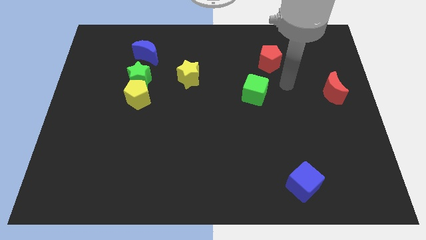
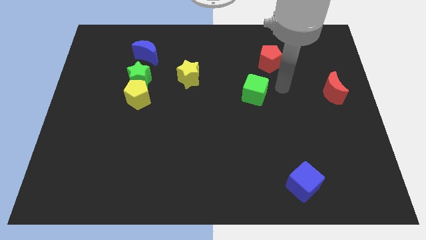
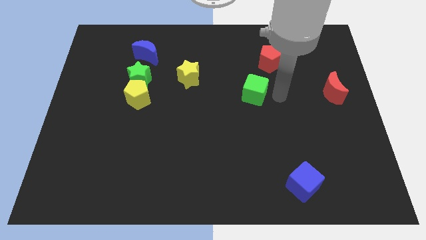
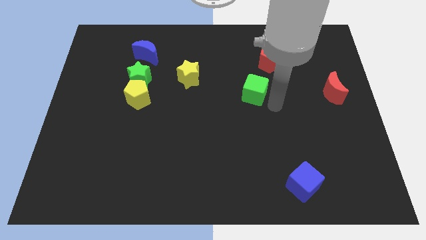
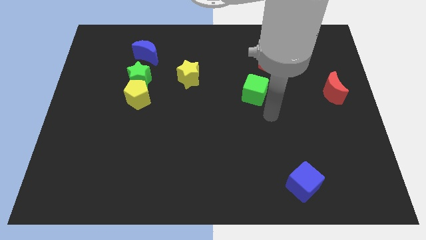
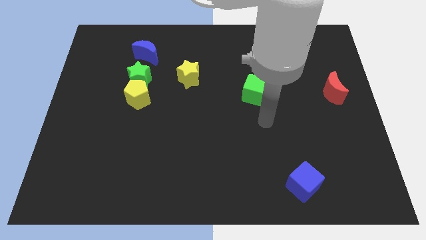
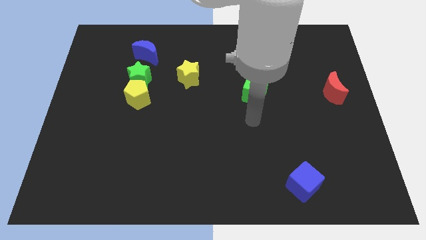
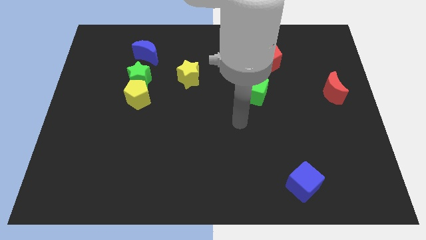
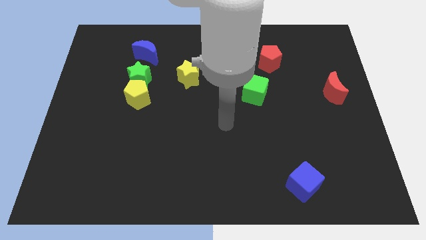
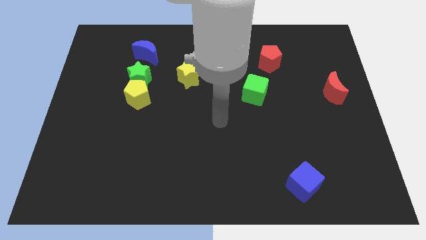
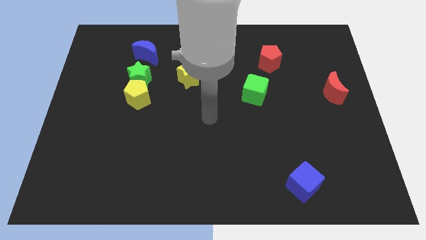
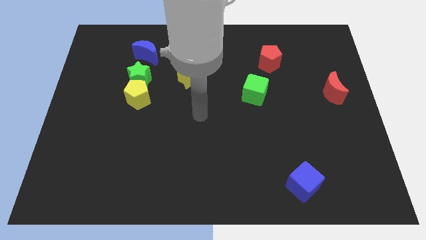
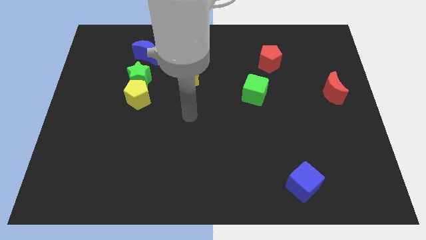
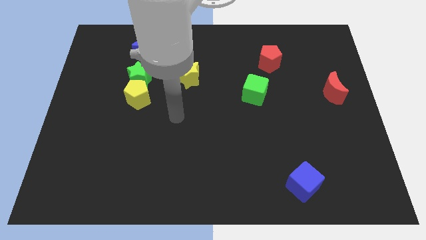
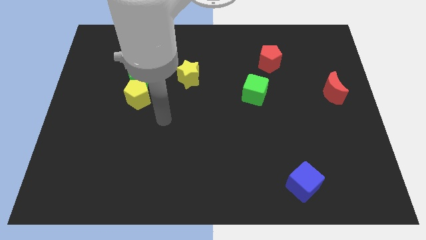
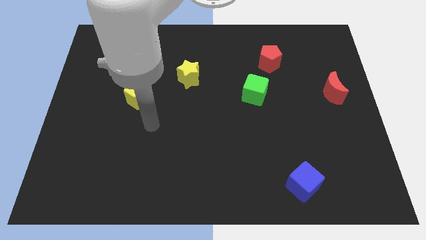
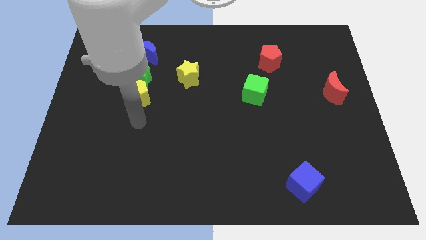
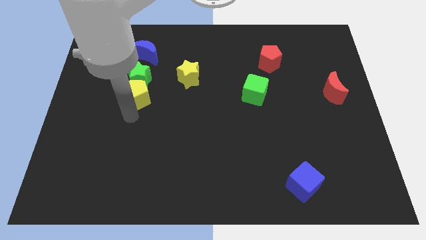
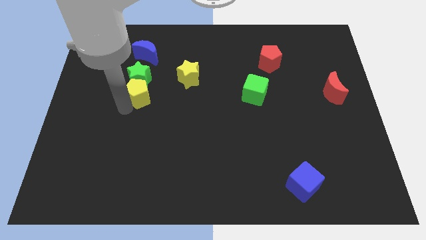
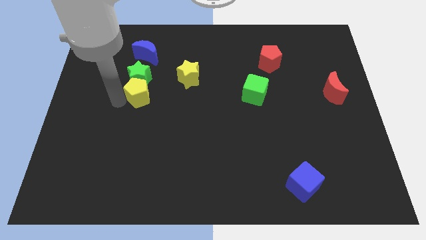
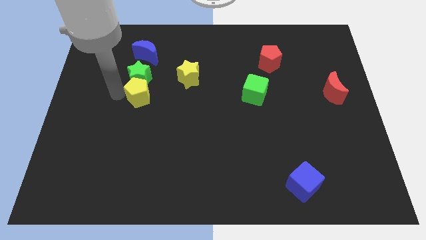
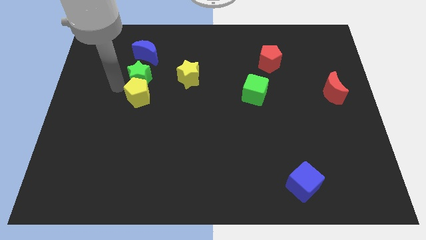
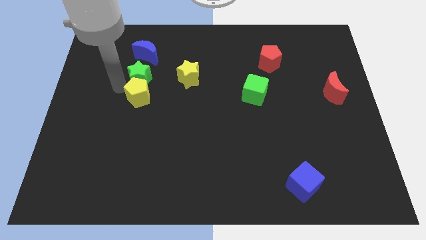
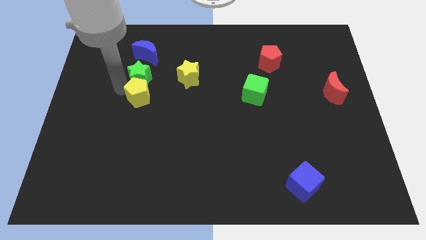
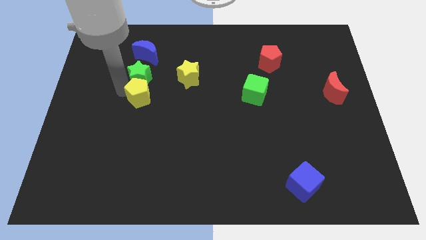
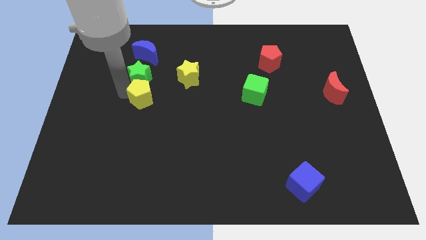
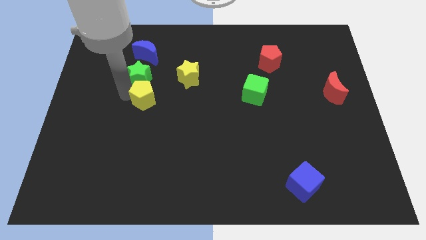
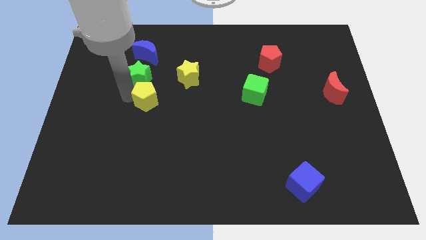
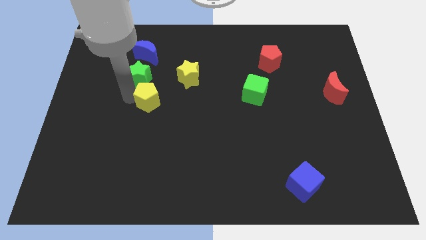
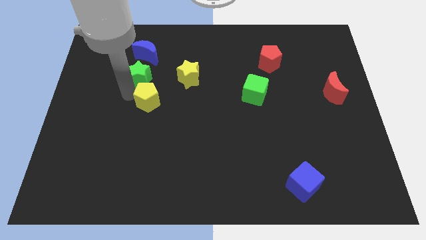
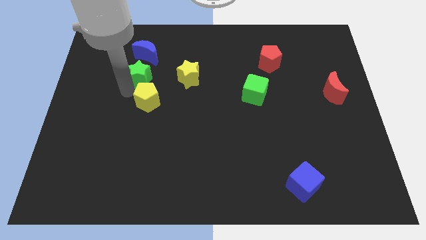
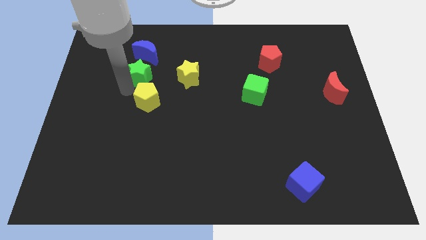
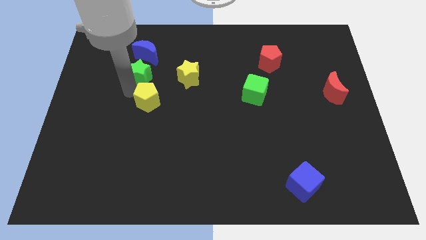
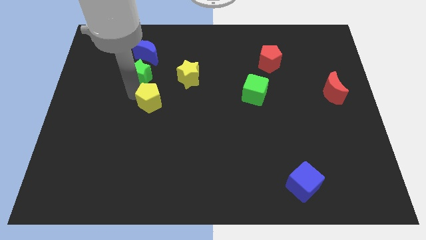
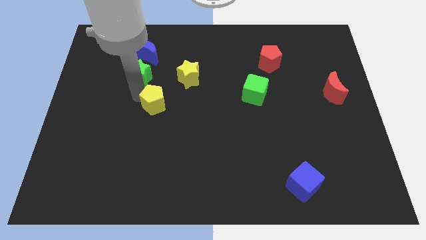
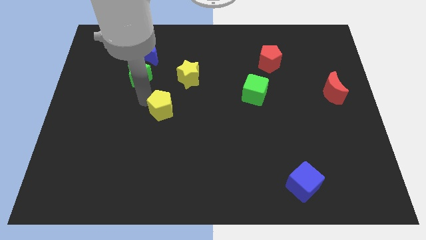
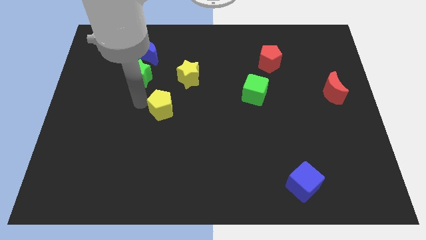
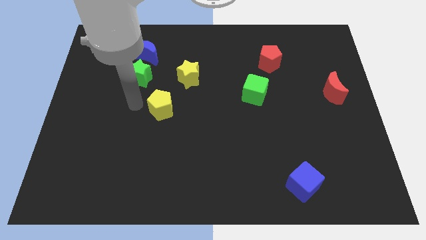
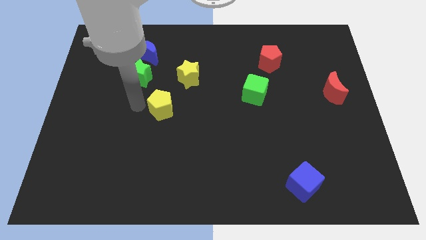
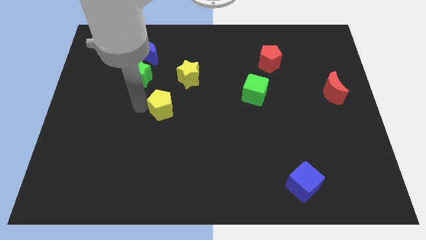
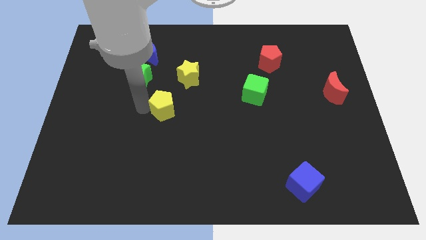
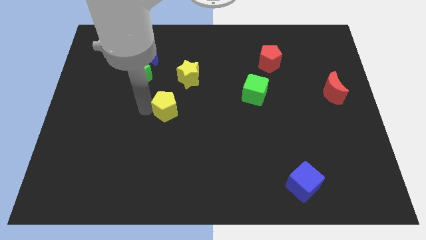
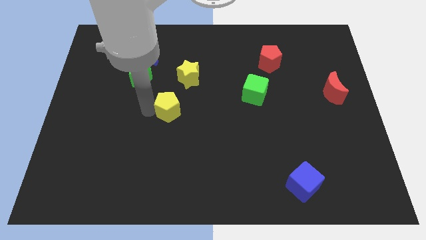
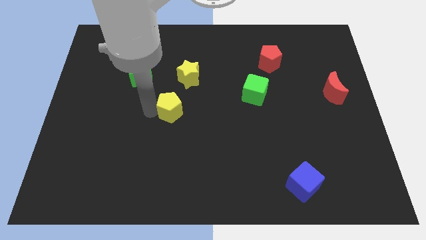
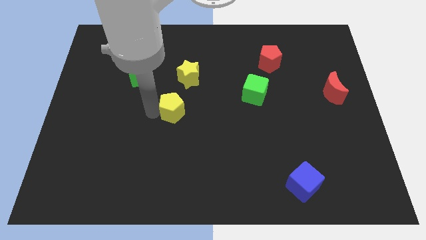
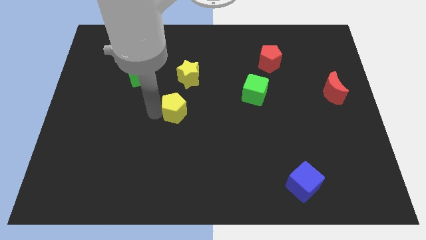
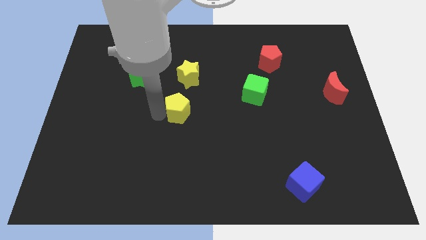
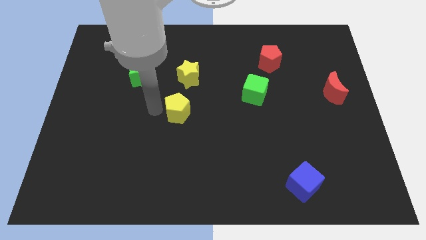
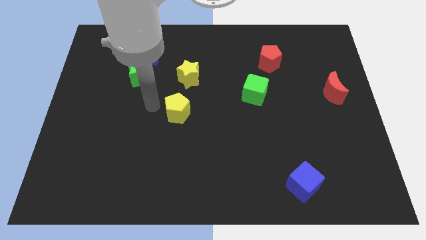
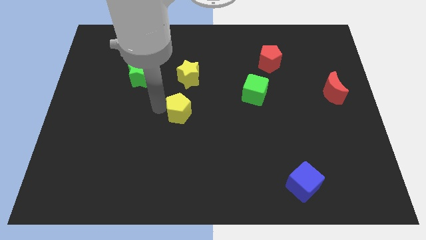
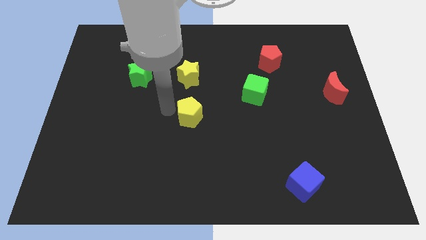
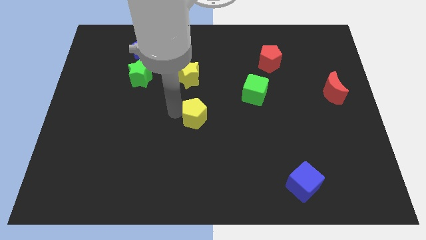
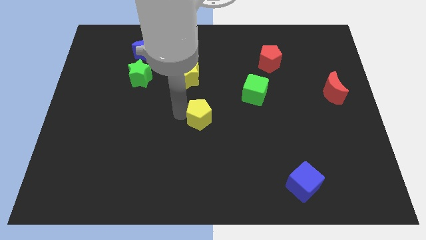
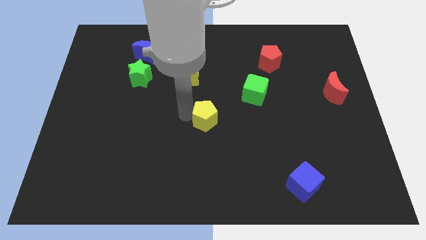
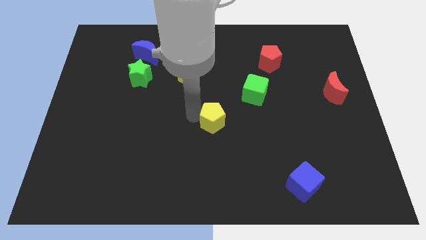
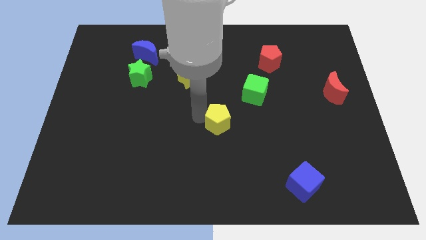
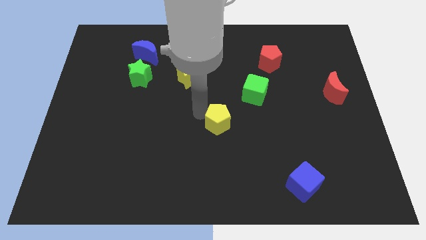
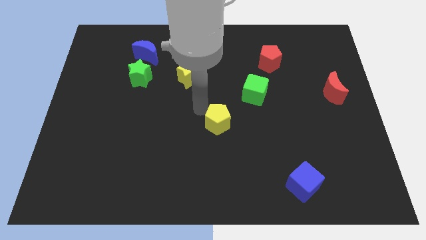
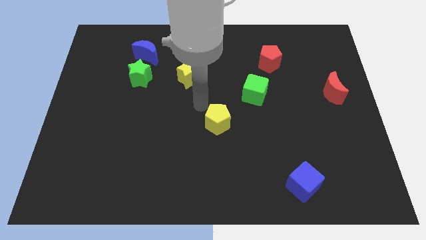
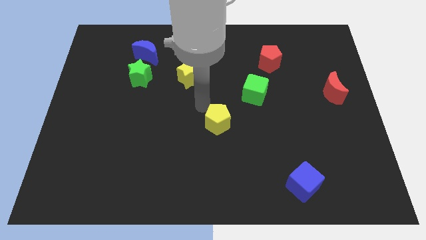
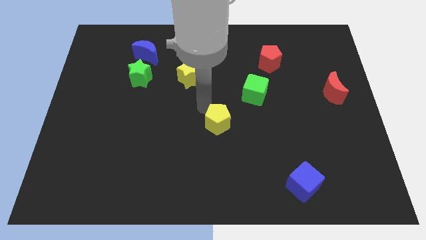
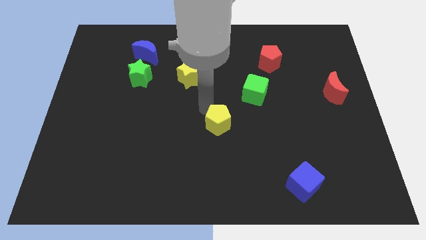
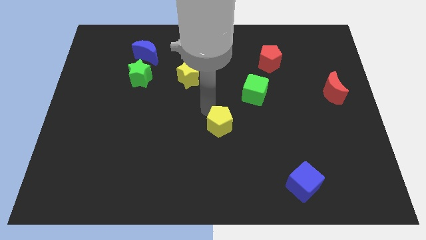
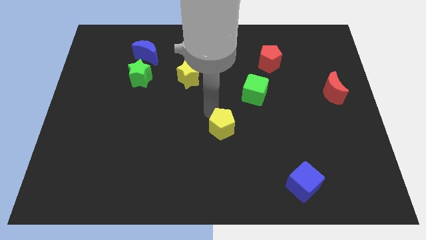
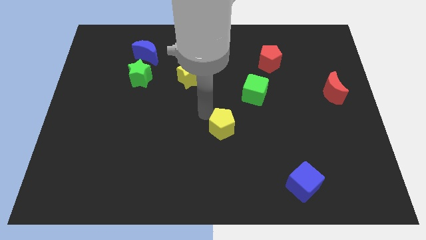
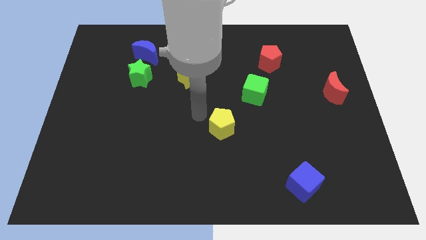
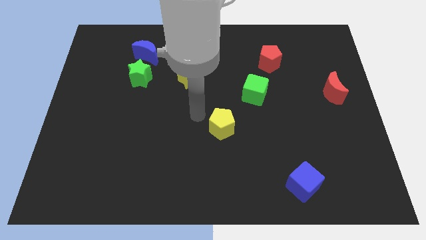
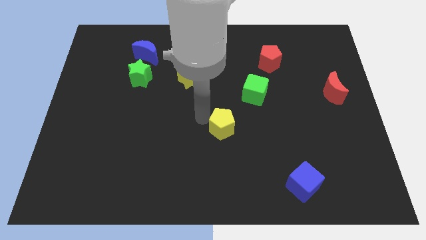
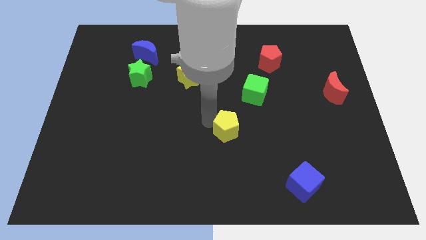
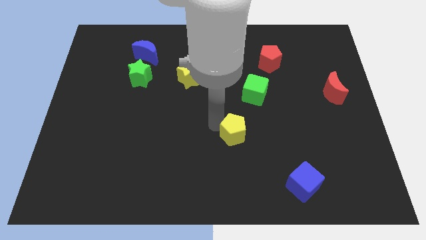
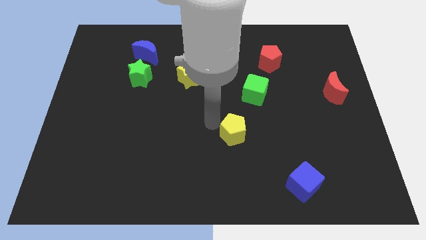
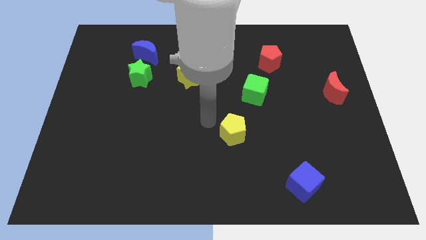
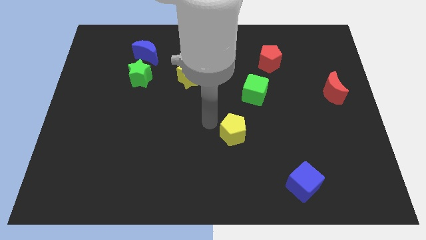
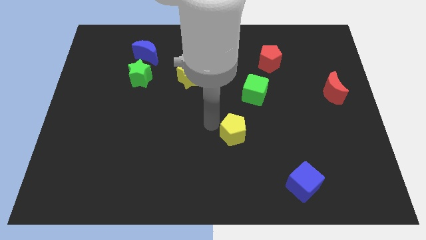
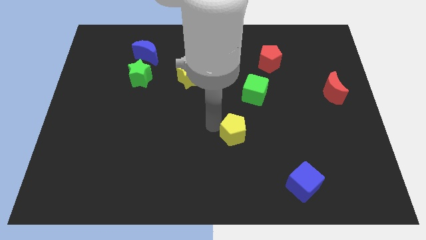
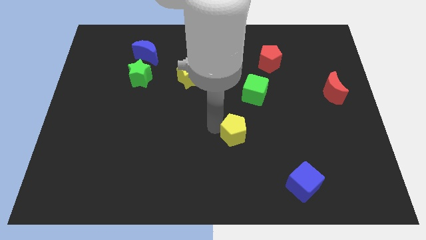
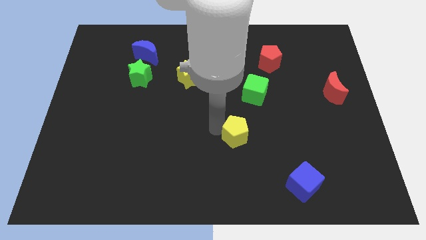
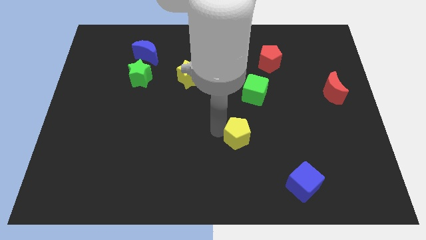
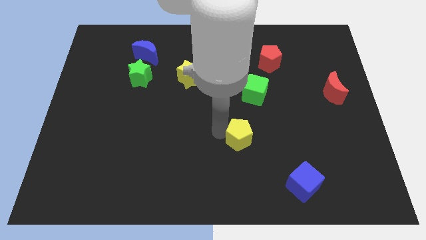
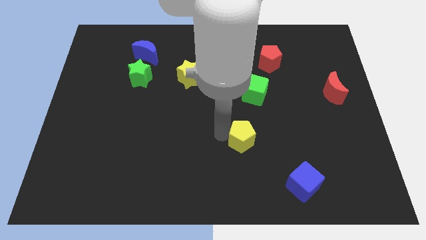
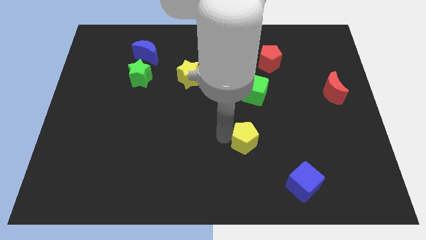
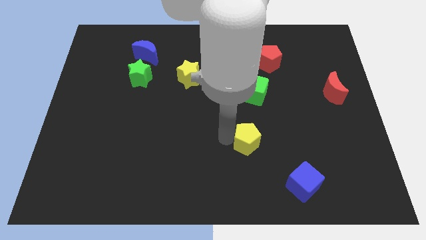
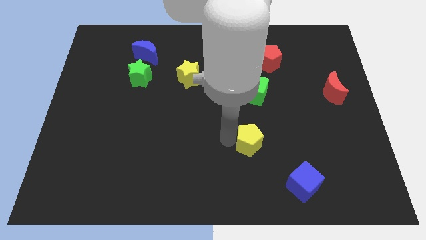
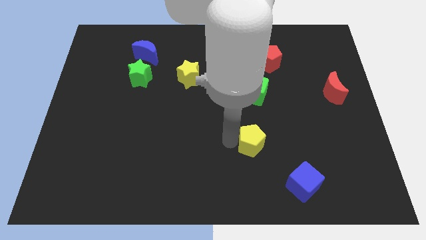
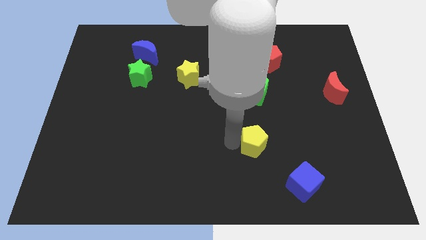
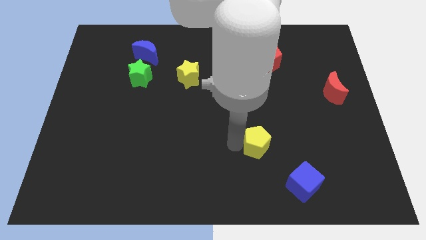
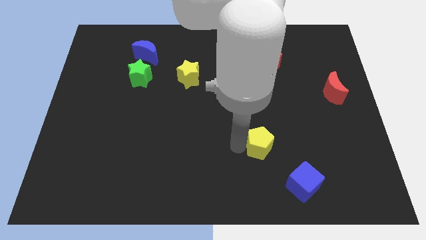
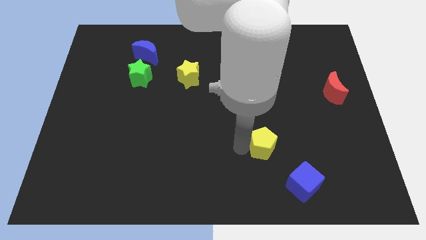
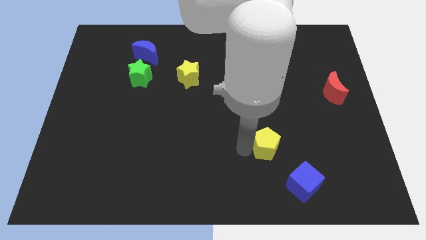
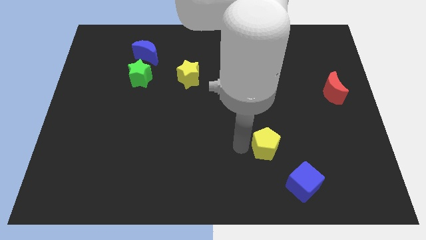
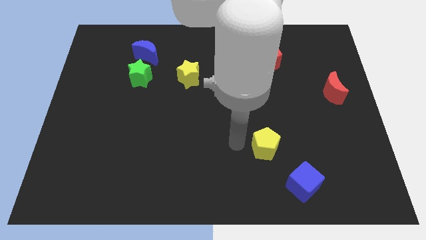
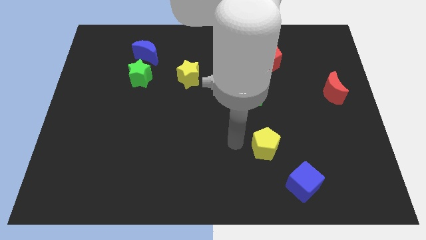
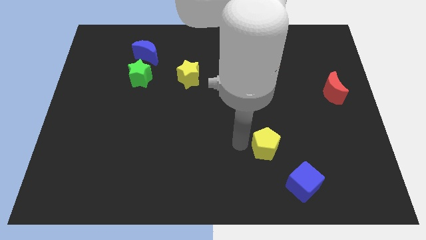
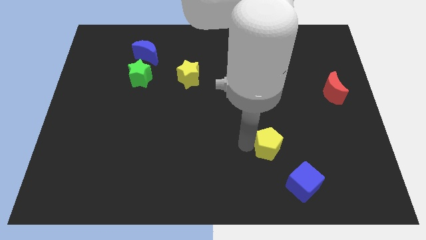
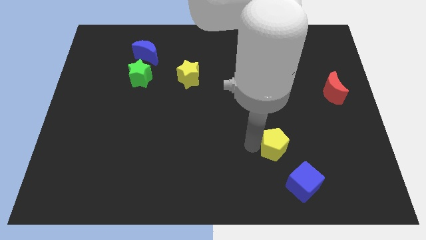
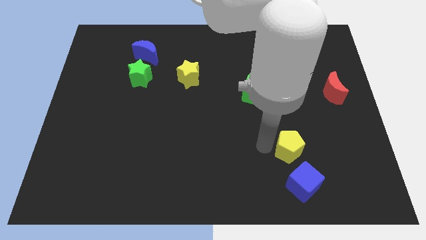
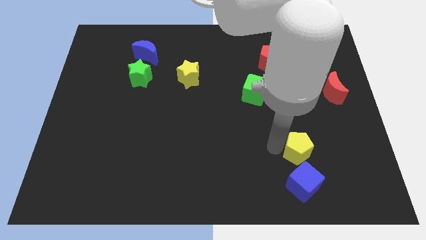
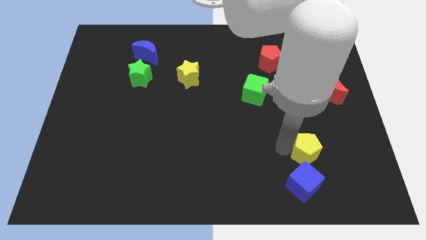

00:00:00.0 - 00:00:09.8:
push the yellow pentagon to the top right of the blue cube
